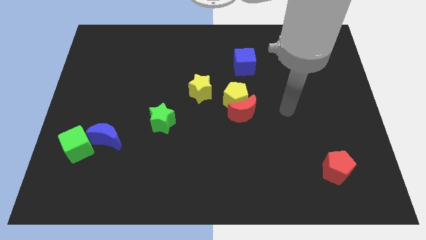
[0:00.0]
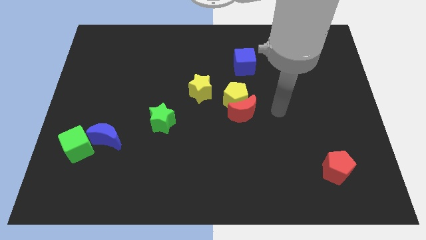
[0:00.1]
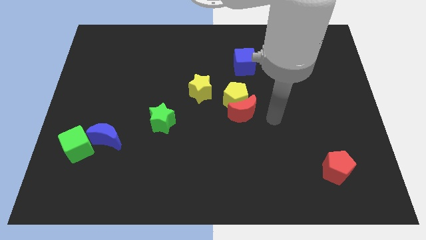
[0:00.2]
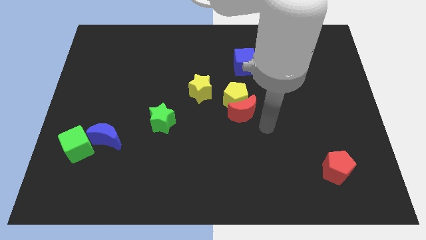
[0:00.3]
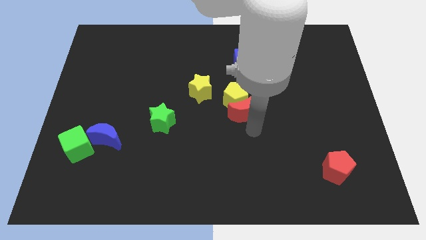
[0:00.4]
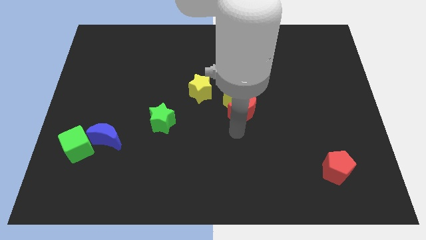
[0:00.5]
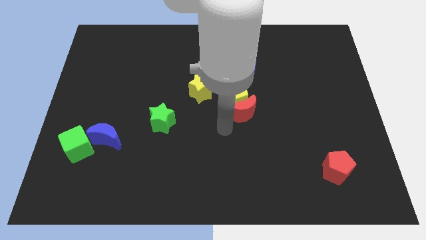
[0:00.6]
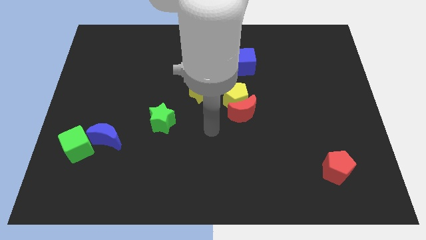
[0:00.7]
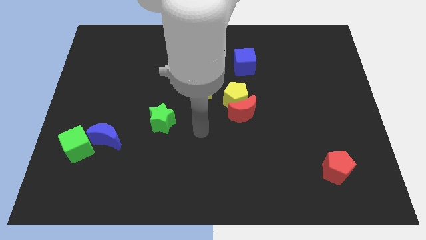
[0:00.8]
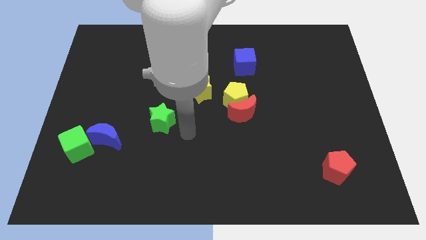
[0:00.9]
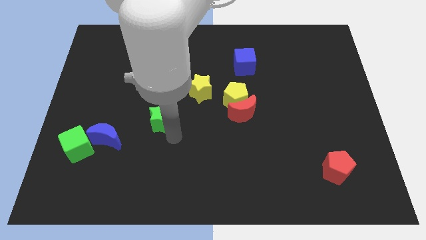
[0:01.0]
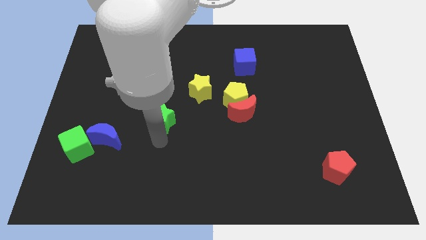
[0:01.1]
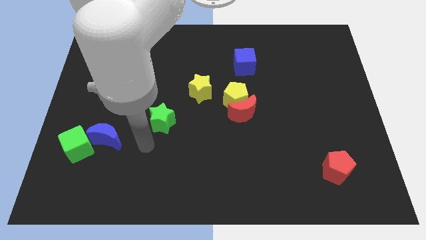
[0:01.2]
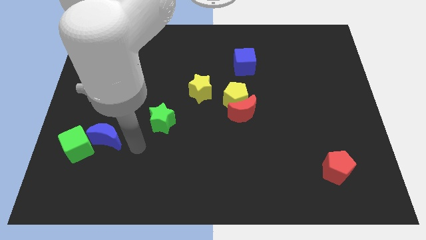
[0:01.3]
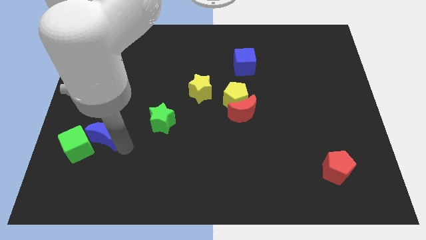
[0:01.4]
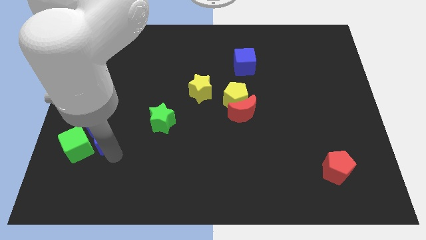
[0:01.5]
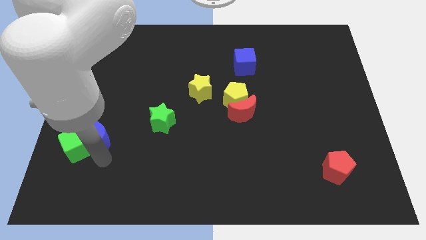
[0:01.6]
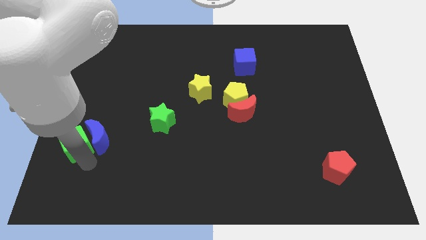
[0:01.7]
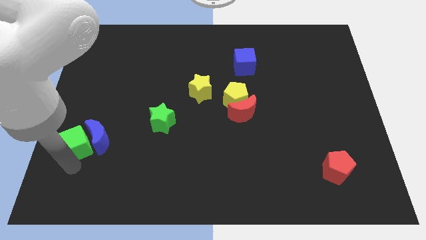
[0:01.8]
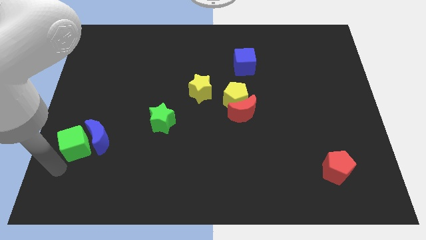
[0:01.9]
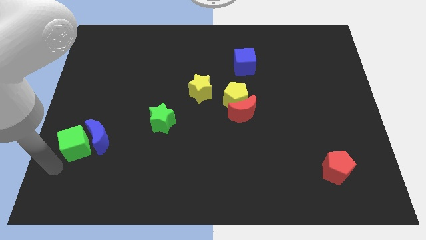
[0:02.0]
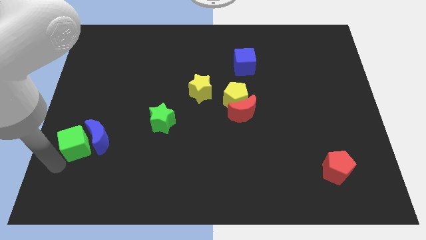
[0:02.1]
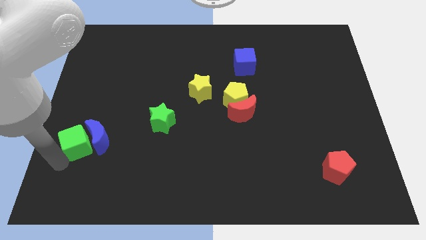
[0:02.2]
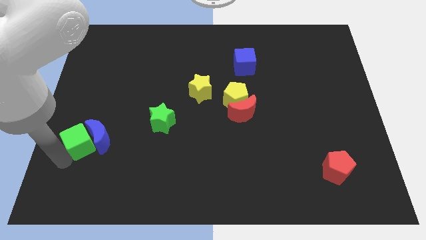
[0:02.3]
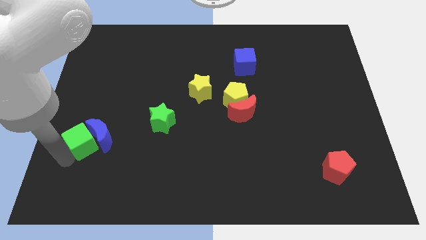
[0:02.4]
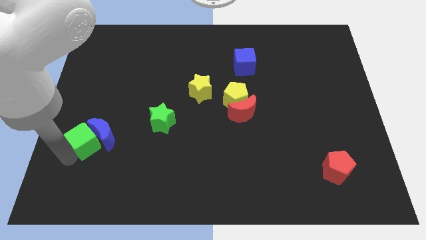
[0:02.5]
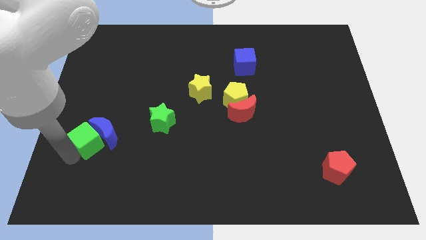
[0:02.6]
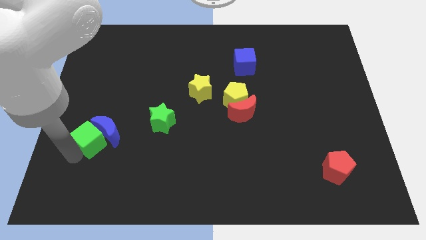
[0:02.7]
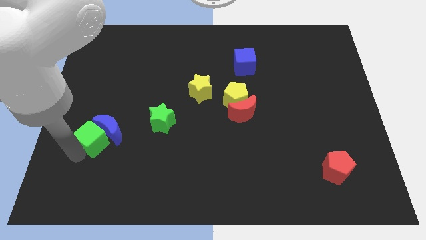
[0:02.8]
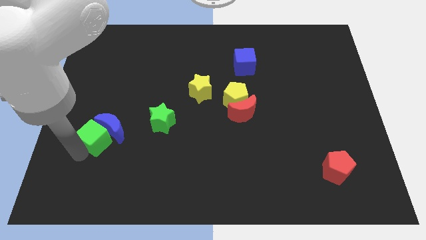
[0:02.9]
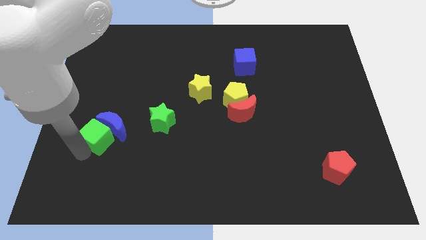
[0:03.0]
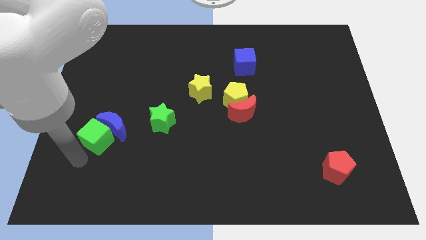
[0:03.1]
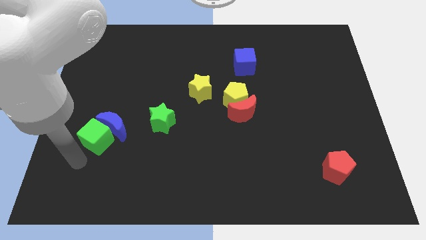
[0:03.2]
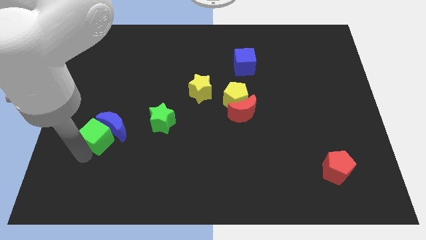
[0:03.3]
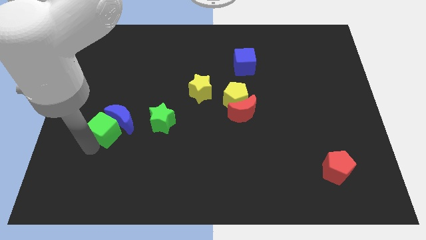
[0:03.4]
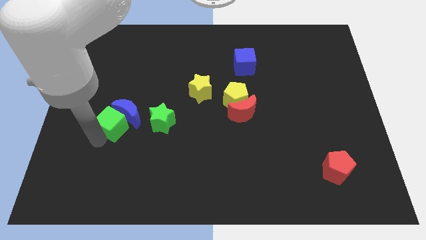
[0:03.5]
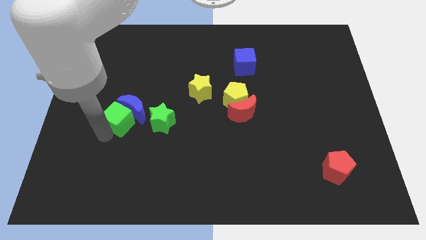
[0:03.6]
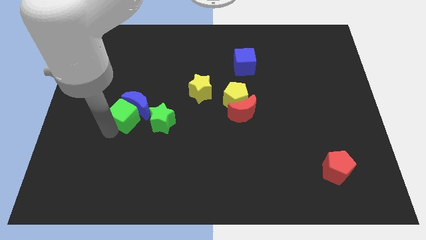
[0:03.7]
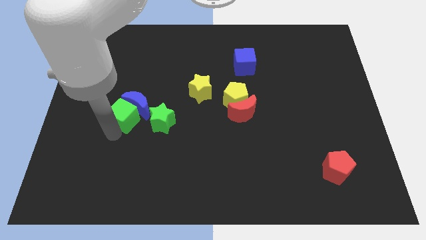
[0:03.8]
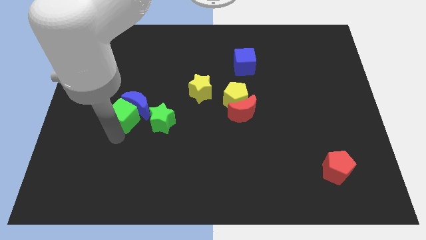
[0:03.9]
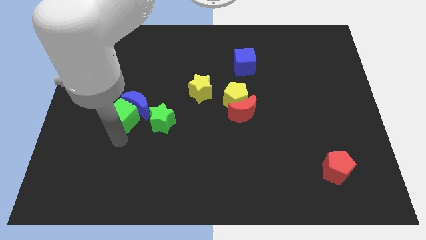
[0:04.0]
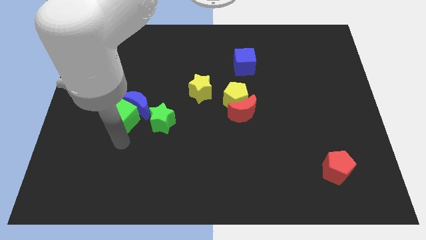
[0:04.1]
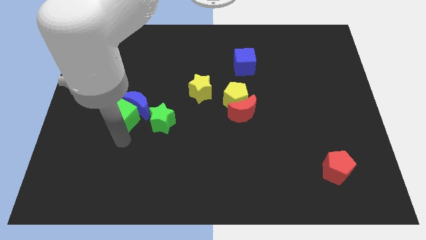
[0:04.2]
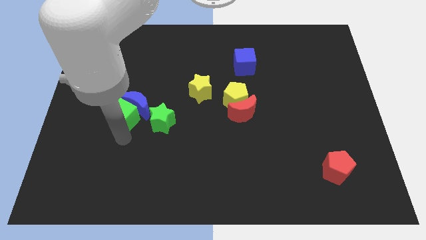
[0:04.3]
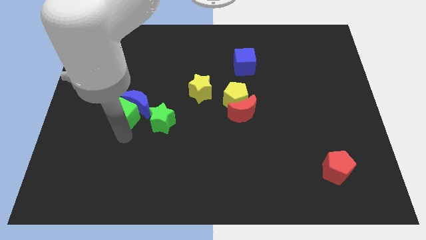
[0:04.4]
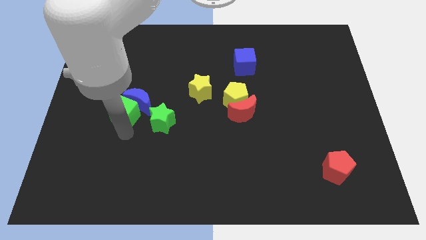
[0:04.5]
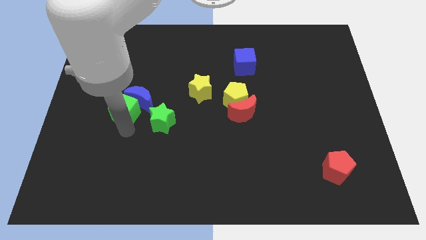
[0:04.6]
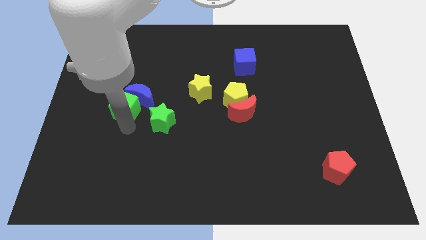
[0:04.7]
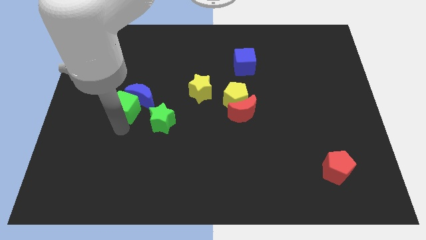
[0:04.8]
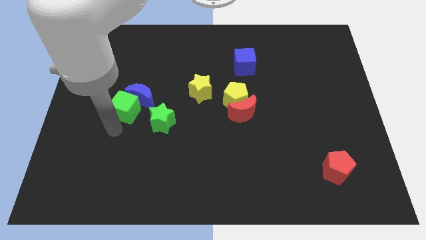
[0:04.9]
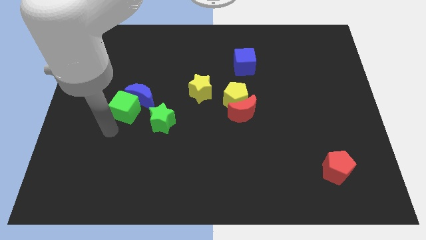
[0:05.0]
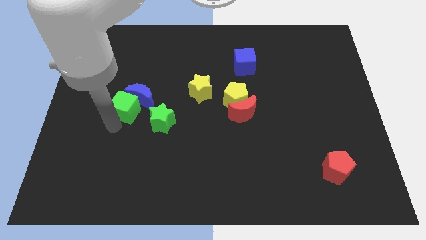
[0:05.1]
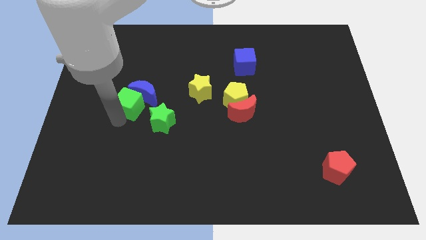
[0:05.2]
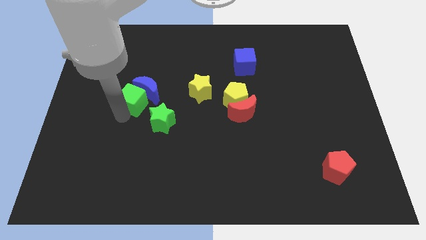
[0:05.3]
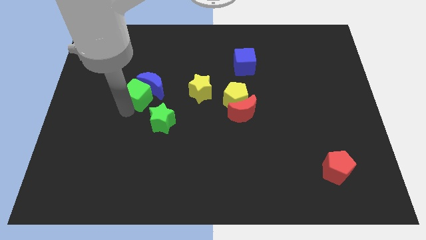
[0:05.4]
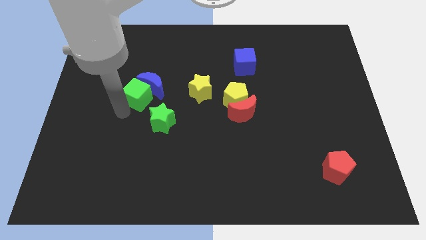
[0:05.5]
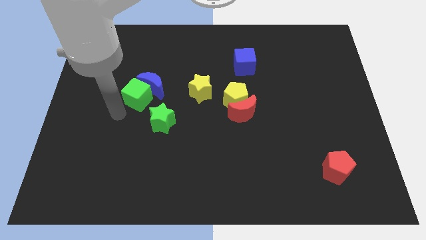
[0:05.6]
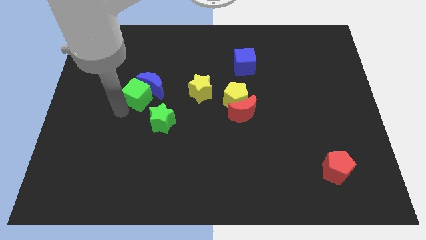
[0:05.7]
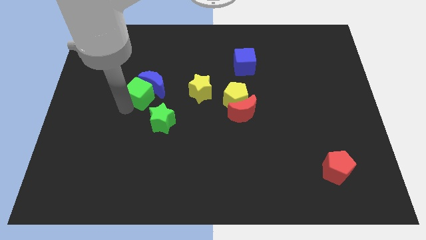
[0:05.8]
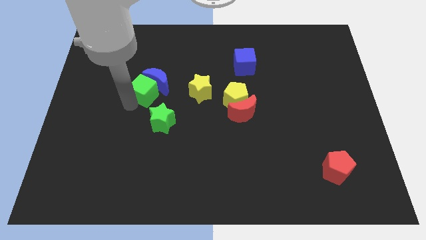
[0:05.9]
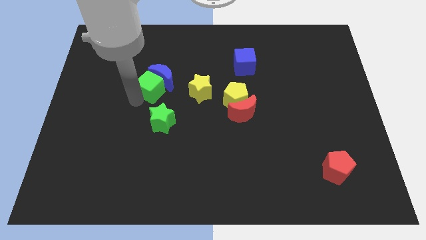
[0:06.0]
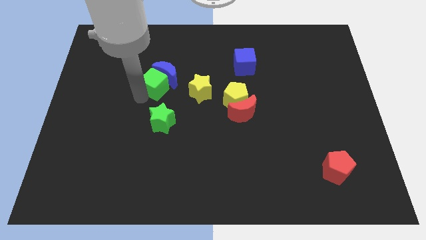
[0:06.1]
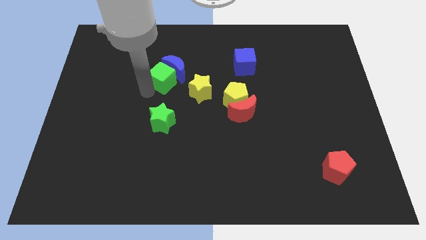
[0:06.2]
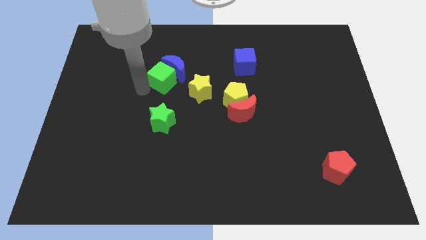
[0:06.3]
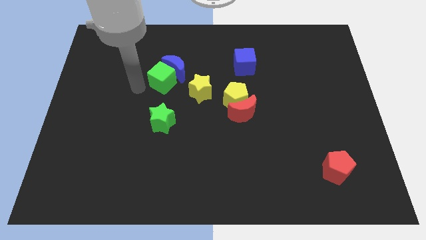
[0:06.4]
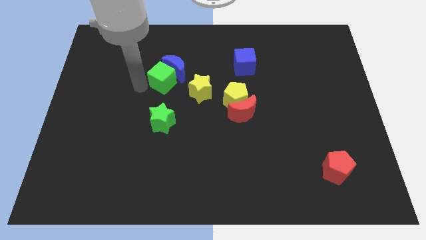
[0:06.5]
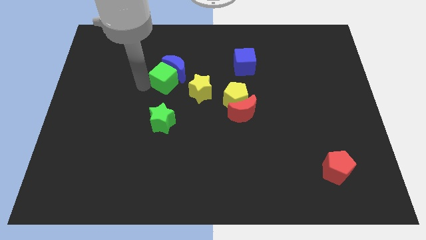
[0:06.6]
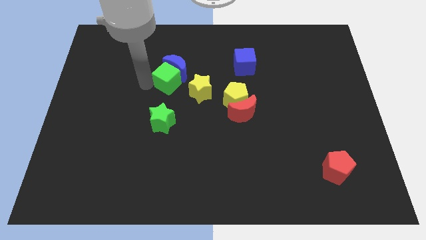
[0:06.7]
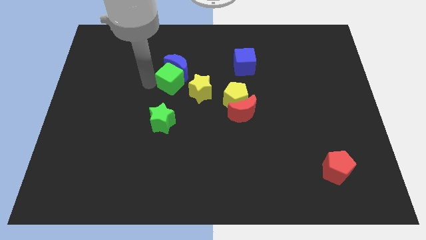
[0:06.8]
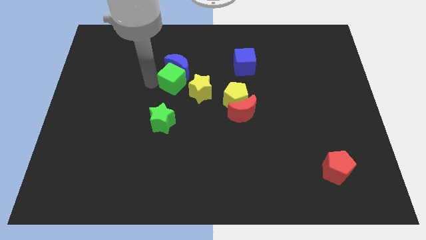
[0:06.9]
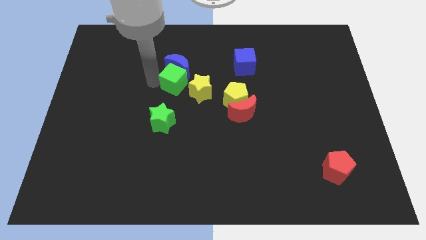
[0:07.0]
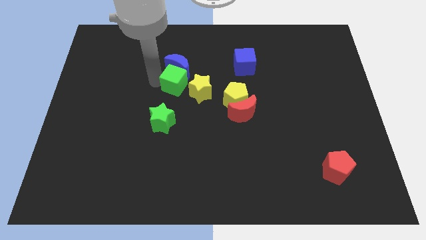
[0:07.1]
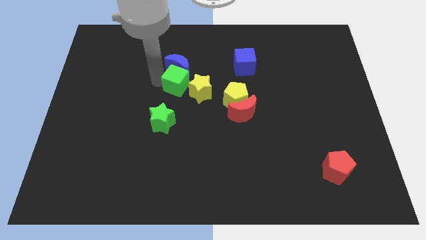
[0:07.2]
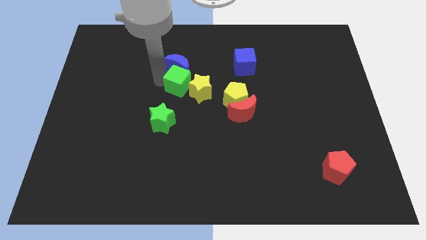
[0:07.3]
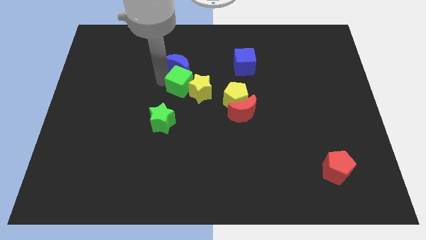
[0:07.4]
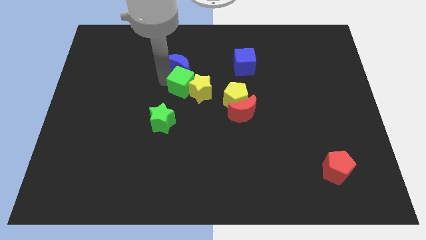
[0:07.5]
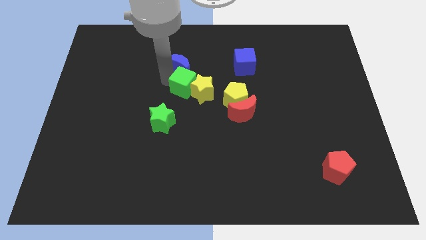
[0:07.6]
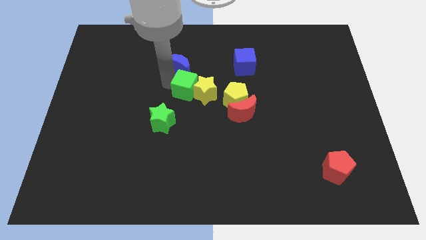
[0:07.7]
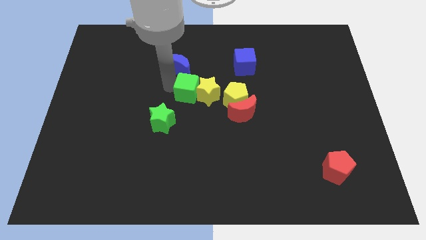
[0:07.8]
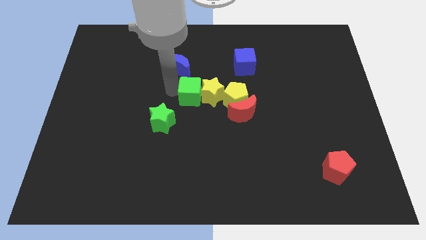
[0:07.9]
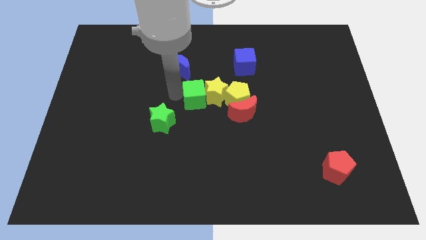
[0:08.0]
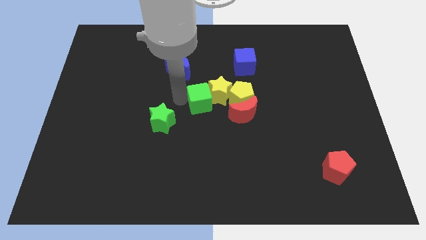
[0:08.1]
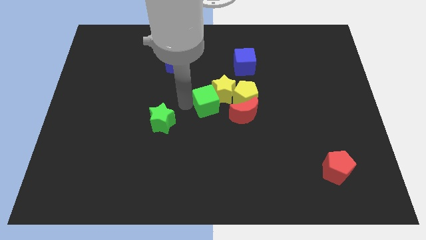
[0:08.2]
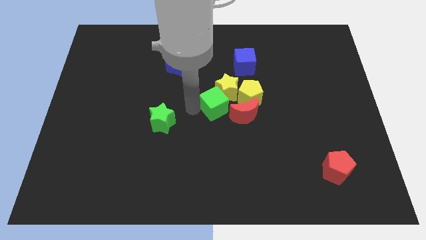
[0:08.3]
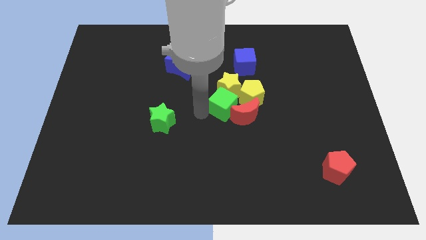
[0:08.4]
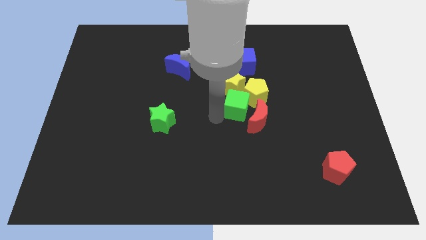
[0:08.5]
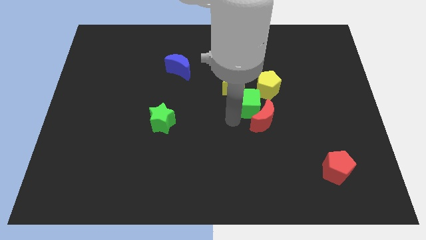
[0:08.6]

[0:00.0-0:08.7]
push the green cube to the top side of the red moon
